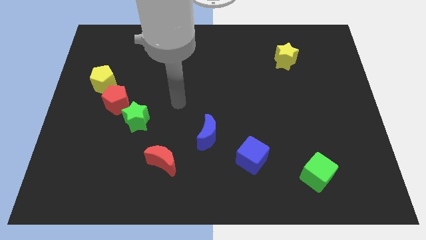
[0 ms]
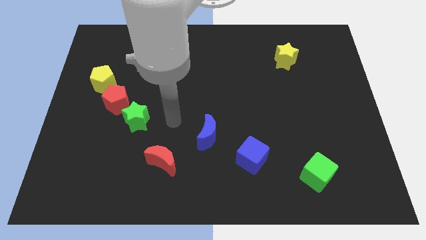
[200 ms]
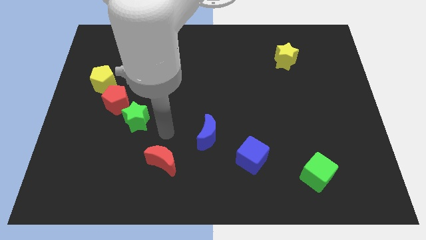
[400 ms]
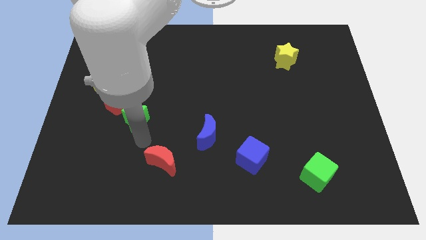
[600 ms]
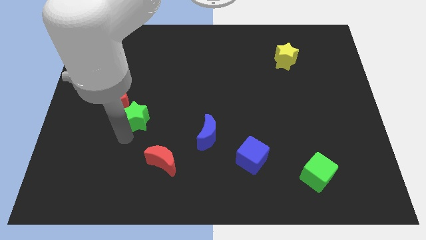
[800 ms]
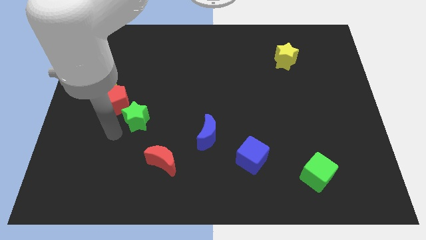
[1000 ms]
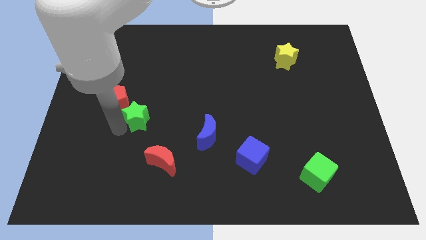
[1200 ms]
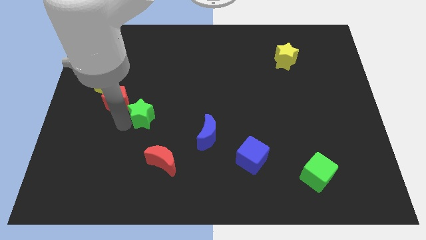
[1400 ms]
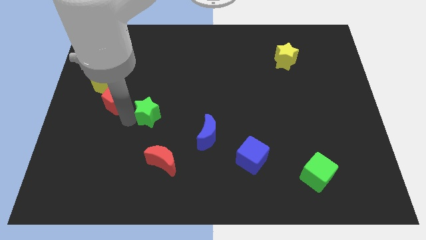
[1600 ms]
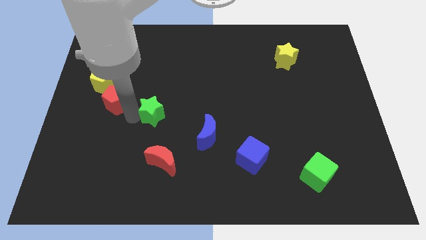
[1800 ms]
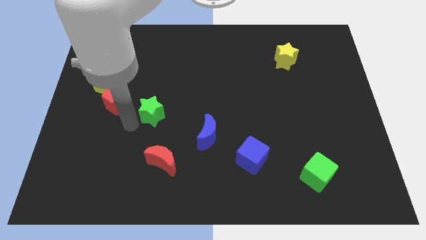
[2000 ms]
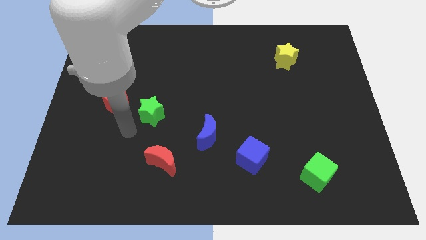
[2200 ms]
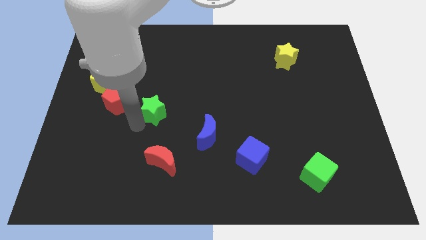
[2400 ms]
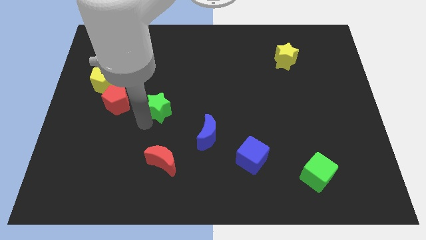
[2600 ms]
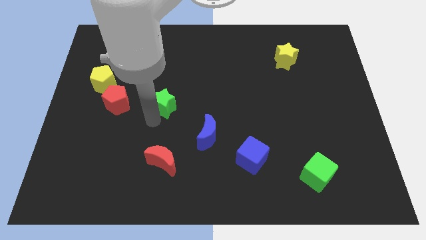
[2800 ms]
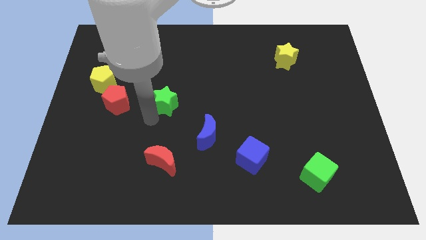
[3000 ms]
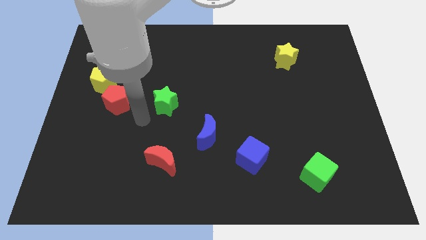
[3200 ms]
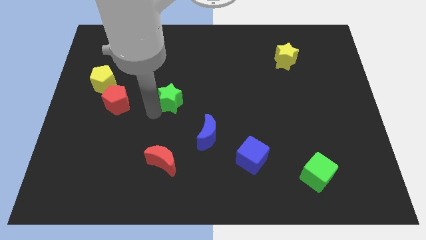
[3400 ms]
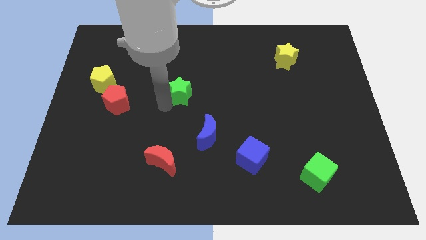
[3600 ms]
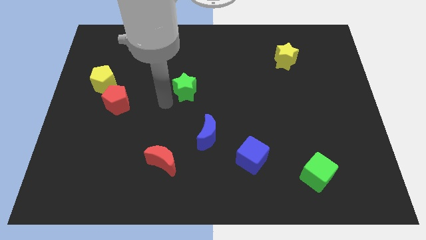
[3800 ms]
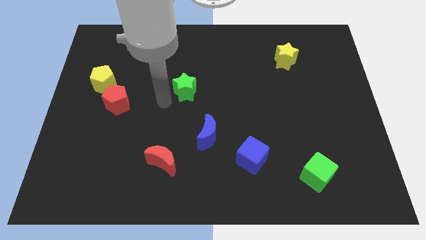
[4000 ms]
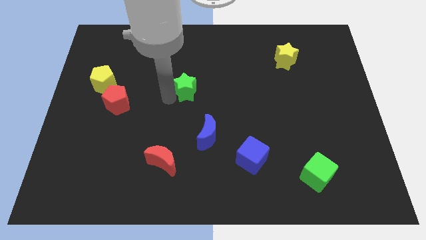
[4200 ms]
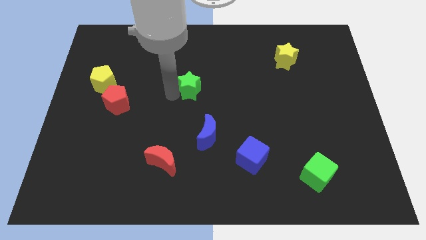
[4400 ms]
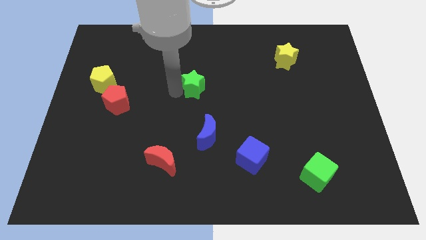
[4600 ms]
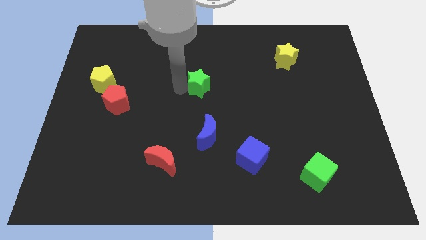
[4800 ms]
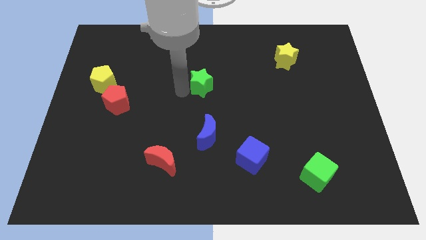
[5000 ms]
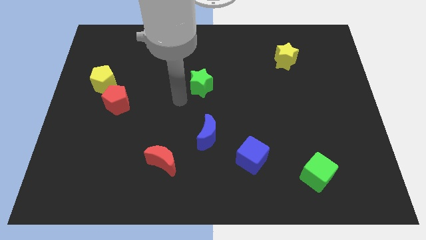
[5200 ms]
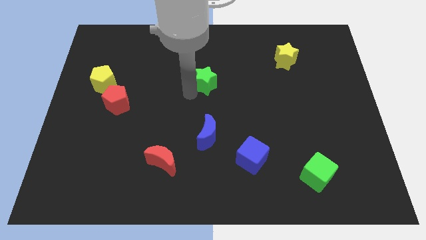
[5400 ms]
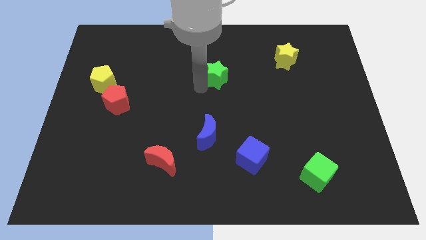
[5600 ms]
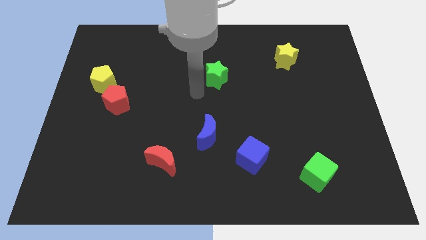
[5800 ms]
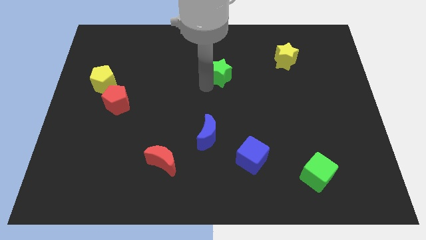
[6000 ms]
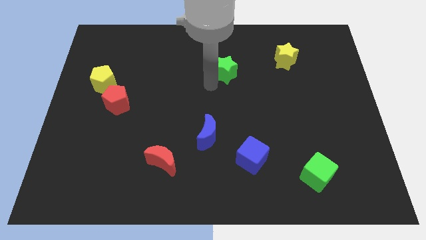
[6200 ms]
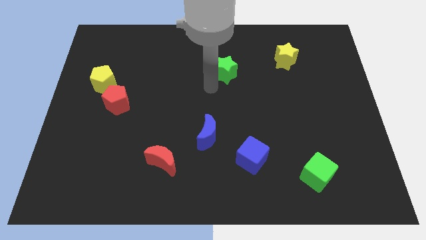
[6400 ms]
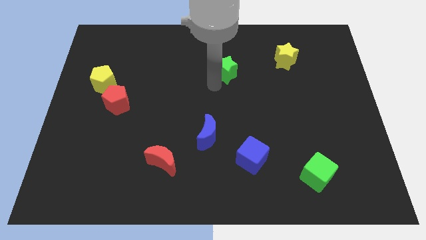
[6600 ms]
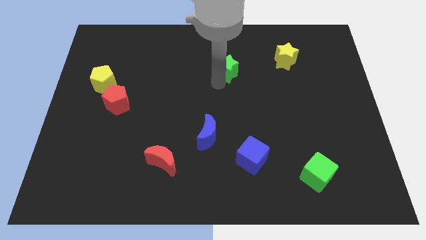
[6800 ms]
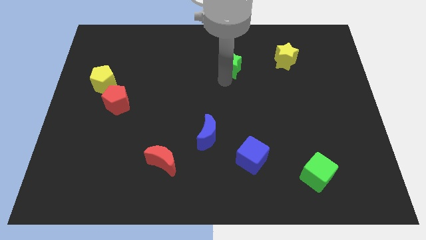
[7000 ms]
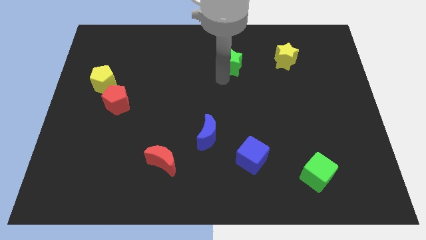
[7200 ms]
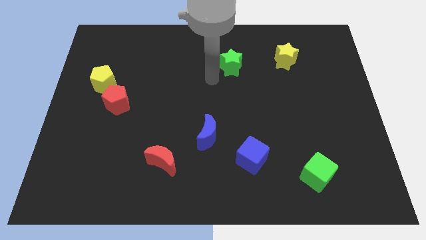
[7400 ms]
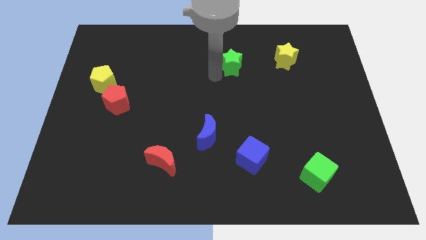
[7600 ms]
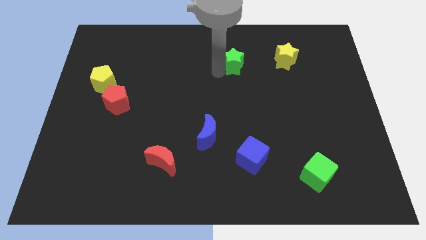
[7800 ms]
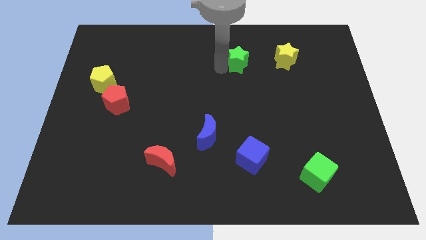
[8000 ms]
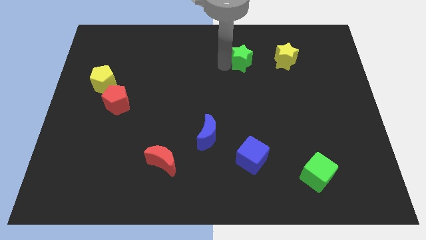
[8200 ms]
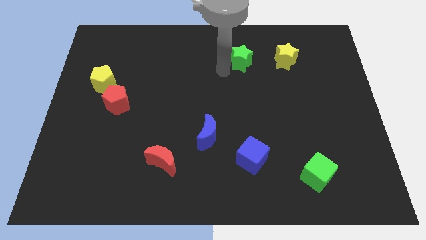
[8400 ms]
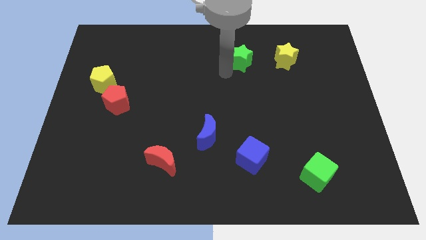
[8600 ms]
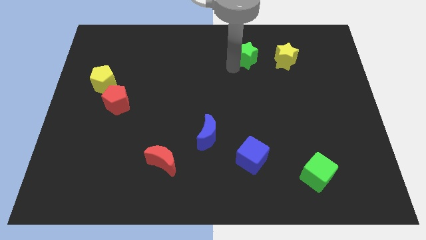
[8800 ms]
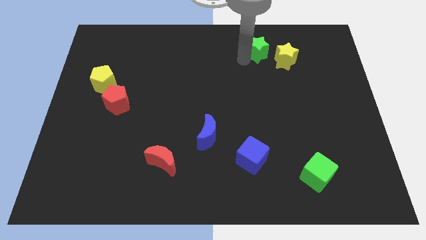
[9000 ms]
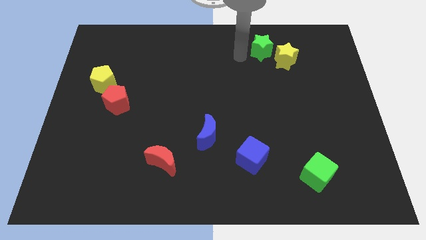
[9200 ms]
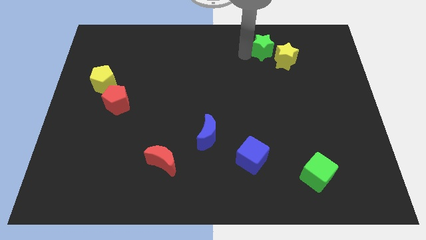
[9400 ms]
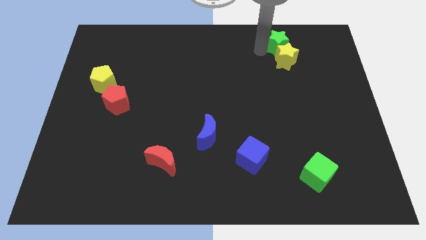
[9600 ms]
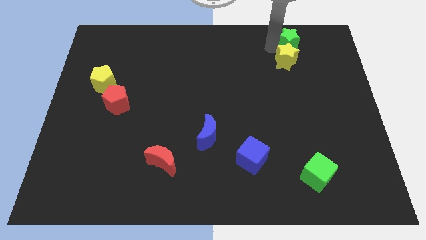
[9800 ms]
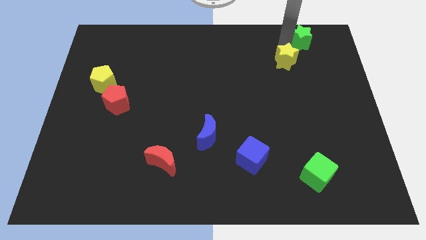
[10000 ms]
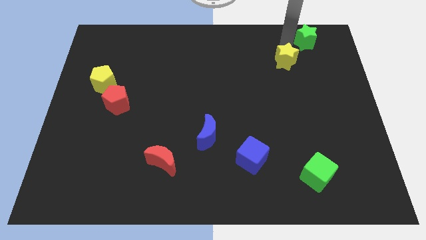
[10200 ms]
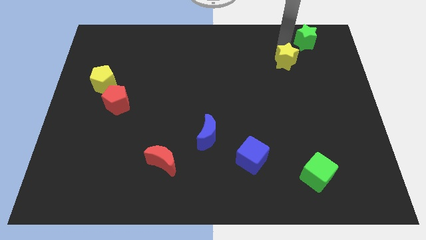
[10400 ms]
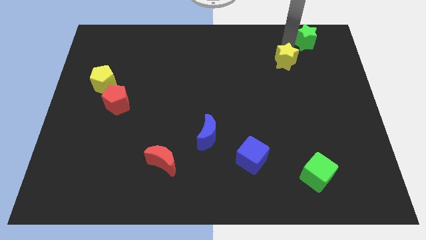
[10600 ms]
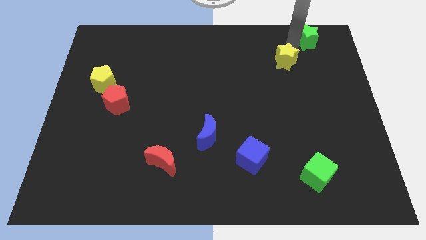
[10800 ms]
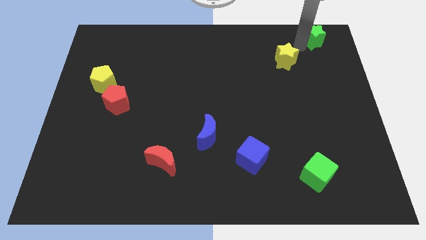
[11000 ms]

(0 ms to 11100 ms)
move the green star to the top right

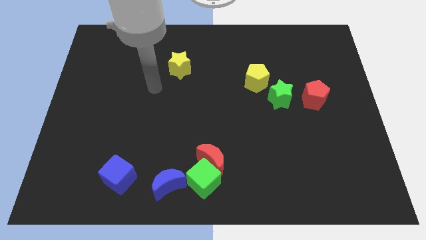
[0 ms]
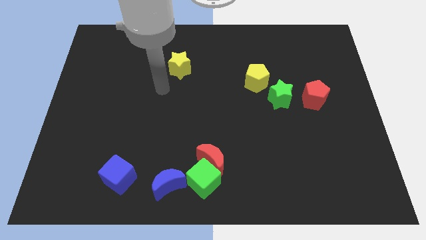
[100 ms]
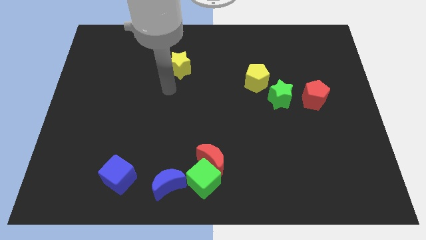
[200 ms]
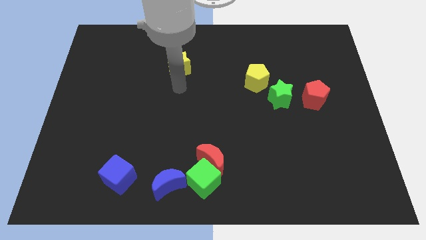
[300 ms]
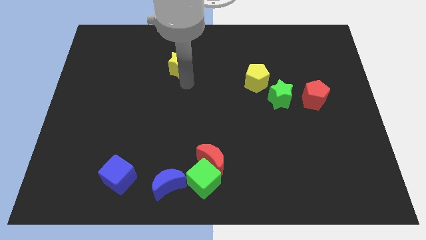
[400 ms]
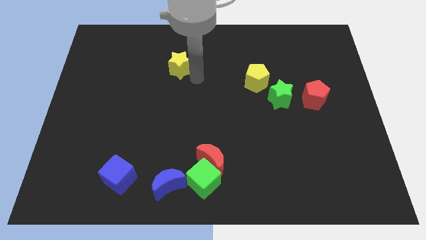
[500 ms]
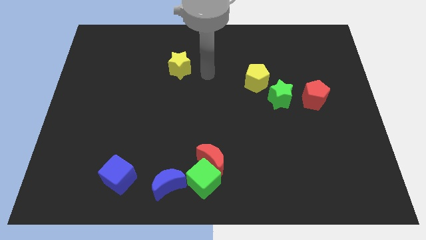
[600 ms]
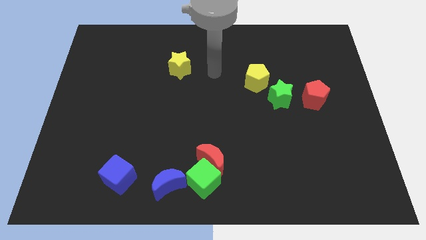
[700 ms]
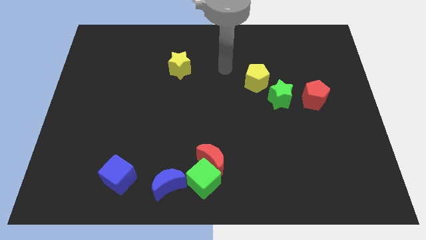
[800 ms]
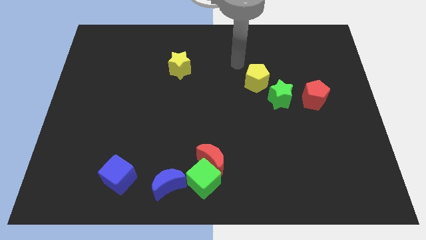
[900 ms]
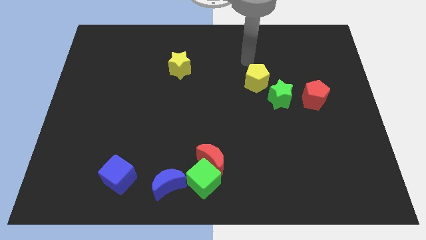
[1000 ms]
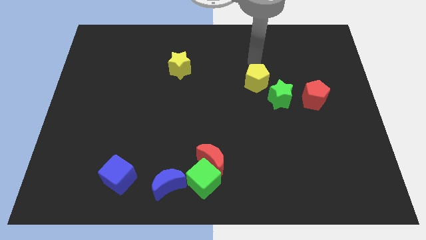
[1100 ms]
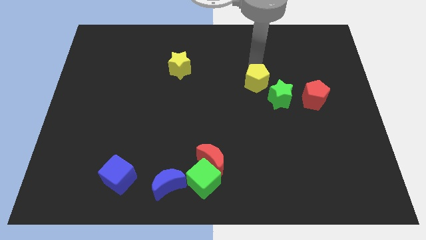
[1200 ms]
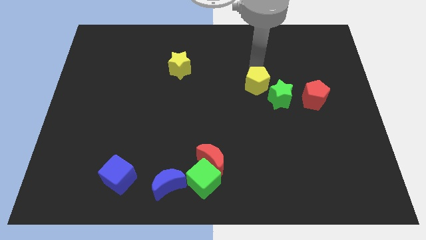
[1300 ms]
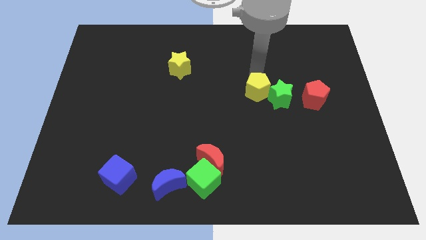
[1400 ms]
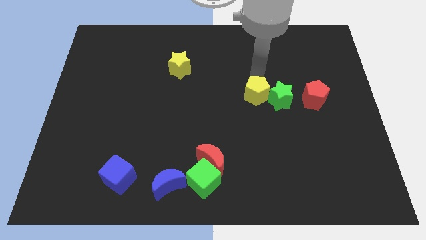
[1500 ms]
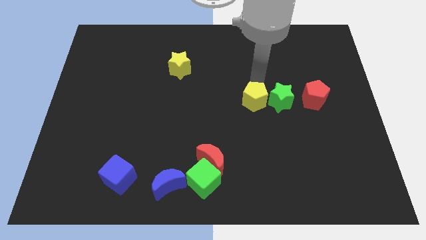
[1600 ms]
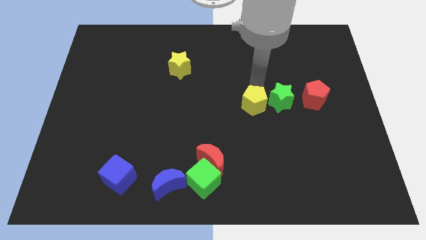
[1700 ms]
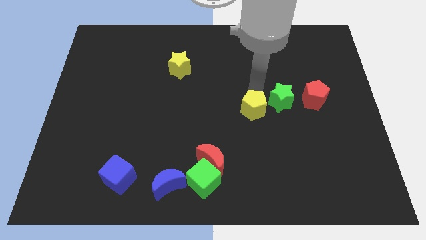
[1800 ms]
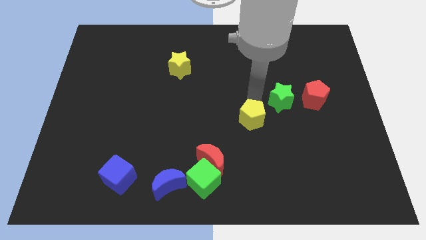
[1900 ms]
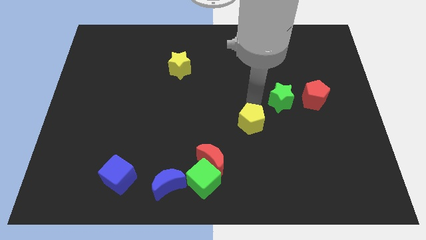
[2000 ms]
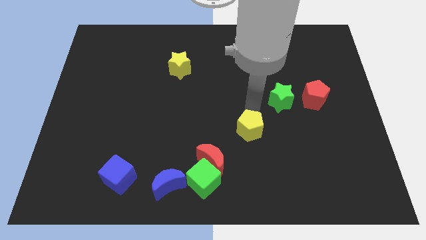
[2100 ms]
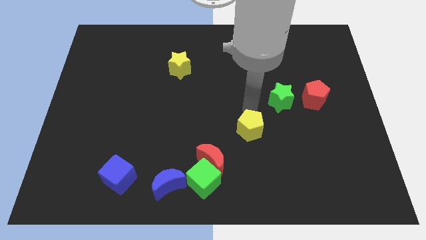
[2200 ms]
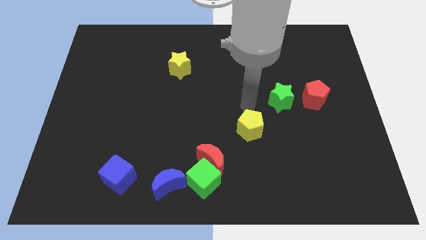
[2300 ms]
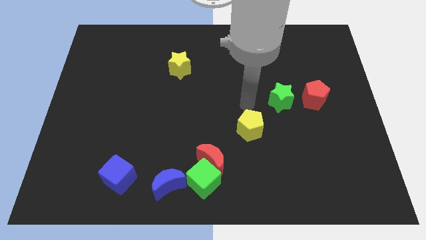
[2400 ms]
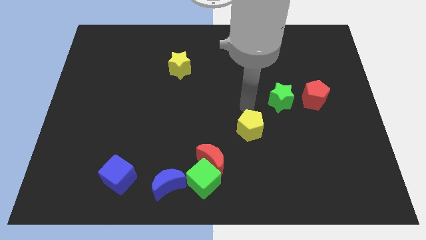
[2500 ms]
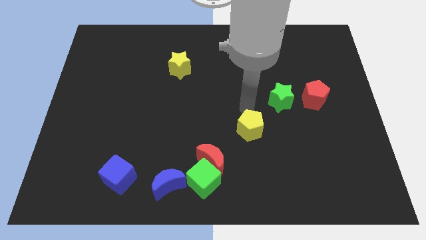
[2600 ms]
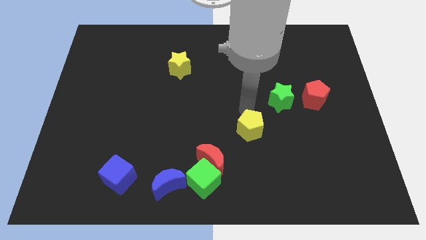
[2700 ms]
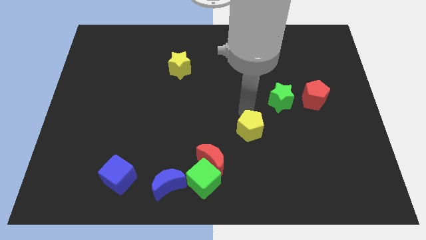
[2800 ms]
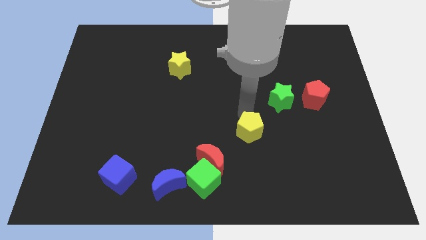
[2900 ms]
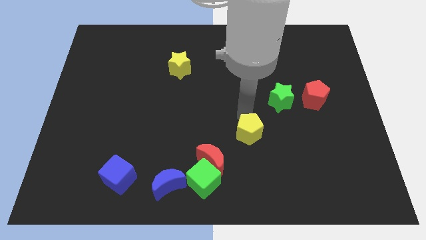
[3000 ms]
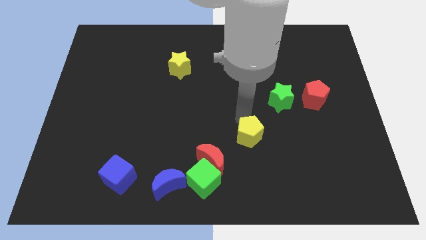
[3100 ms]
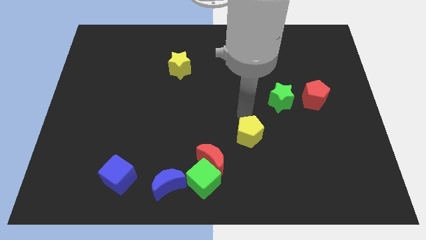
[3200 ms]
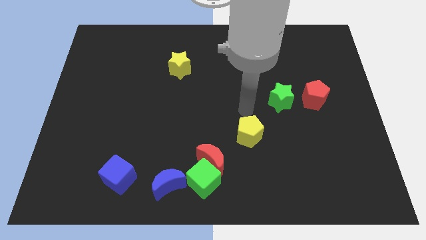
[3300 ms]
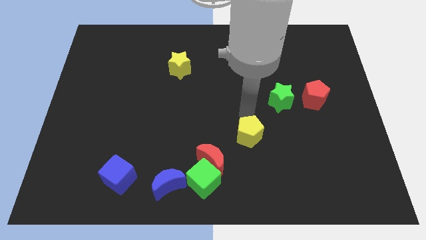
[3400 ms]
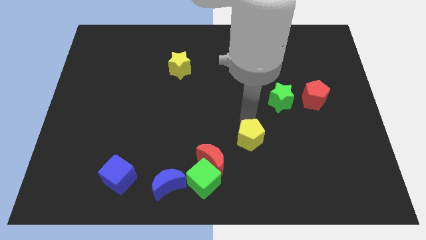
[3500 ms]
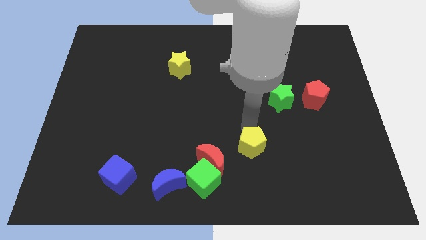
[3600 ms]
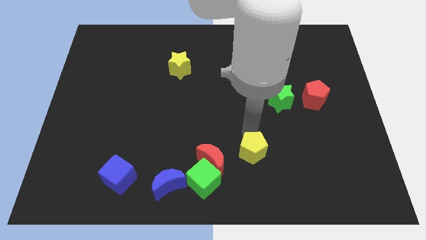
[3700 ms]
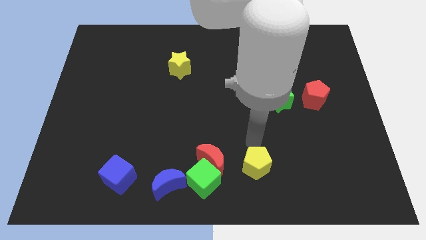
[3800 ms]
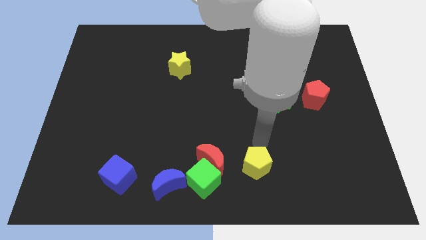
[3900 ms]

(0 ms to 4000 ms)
push the yellow pentagon to the bottom side
